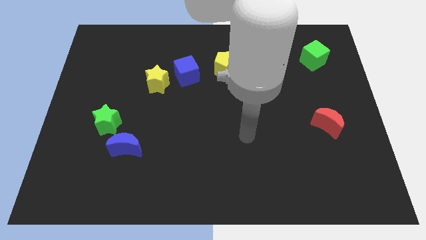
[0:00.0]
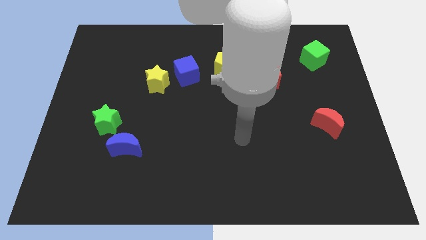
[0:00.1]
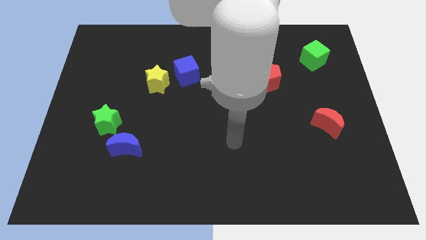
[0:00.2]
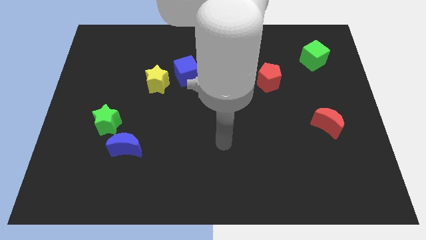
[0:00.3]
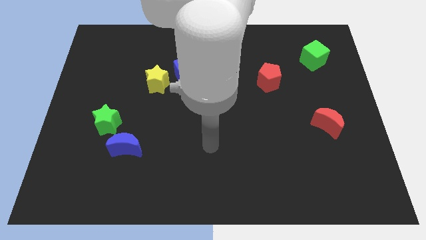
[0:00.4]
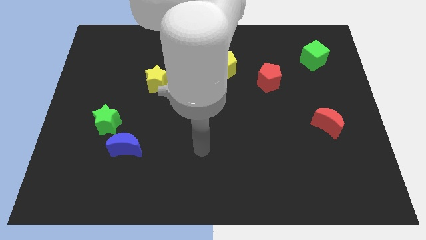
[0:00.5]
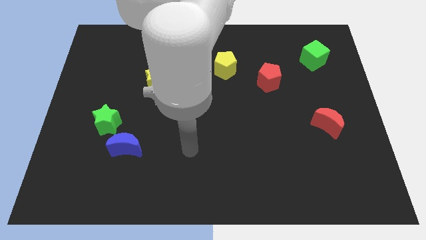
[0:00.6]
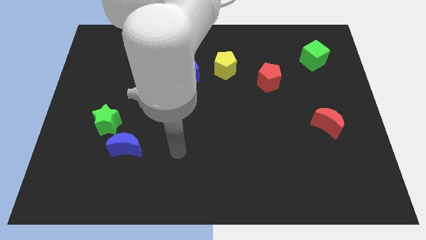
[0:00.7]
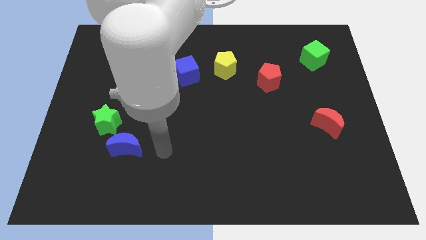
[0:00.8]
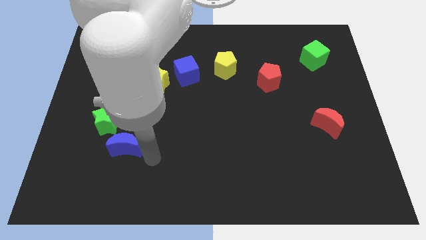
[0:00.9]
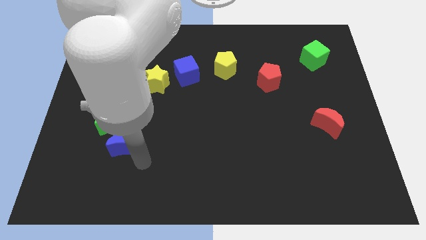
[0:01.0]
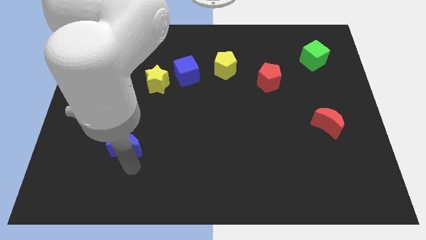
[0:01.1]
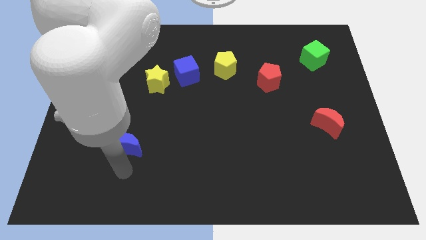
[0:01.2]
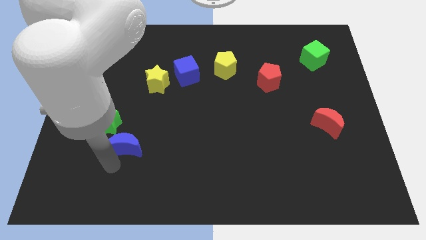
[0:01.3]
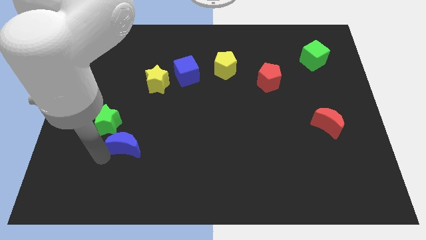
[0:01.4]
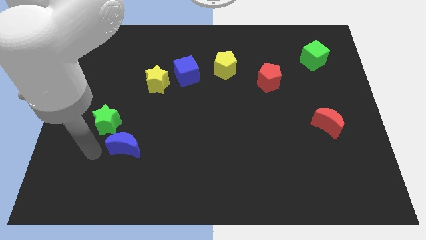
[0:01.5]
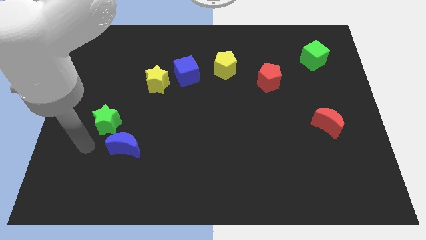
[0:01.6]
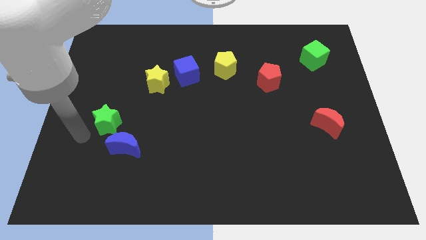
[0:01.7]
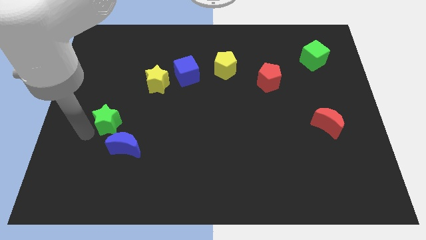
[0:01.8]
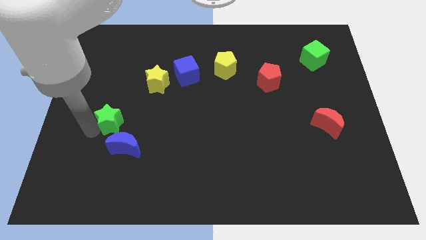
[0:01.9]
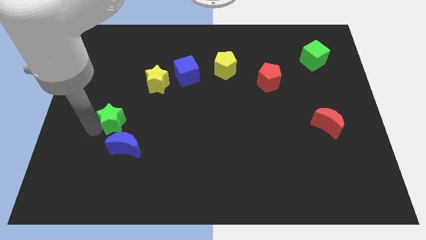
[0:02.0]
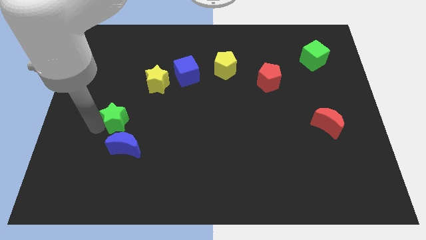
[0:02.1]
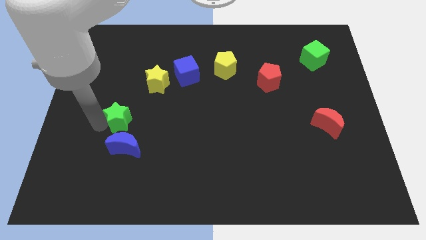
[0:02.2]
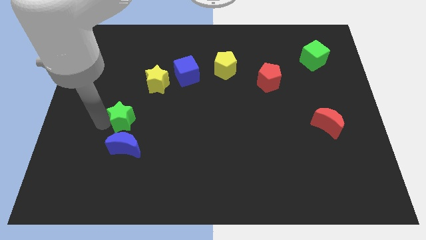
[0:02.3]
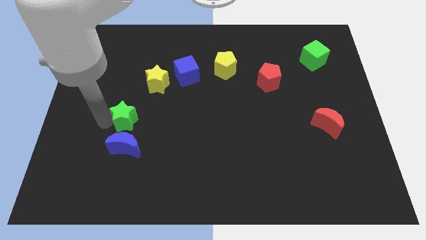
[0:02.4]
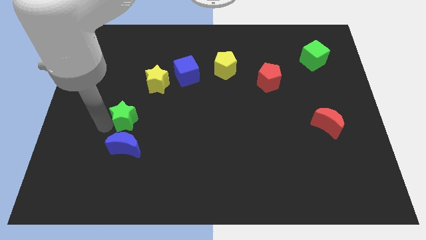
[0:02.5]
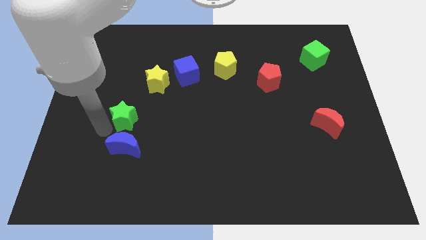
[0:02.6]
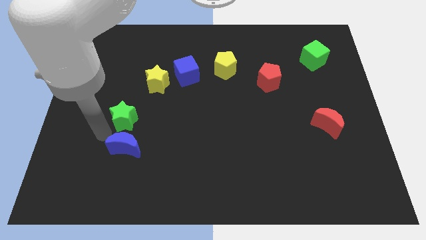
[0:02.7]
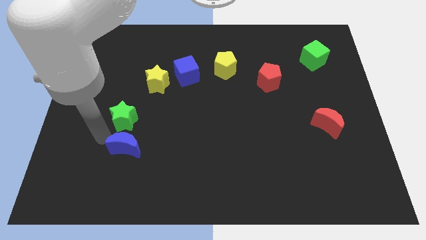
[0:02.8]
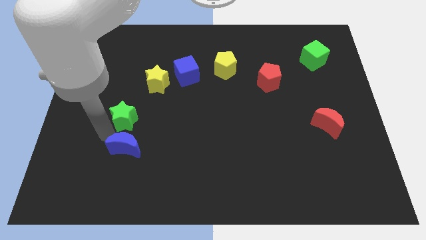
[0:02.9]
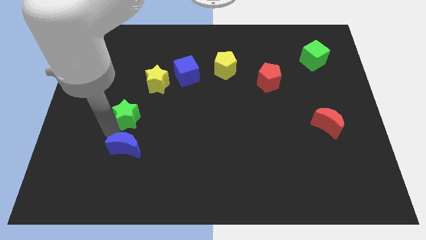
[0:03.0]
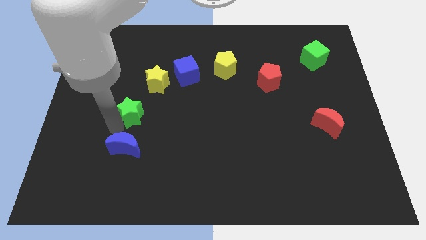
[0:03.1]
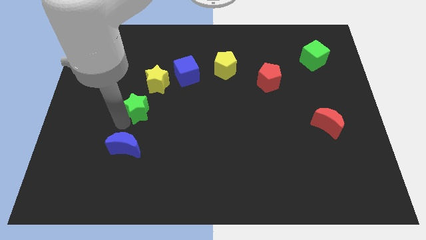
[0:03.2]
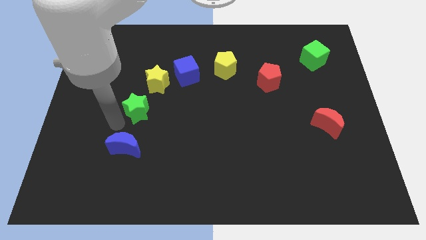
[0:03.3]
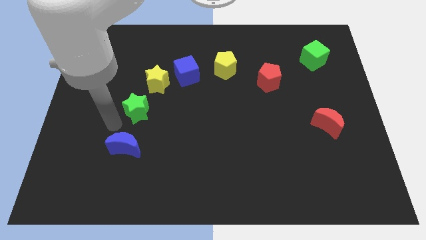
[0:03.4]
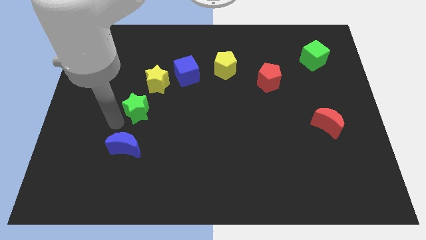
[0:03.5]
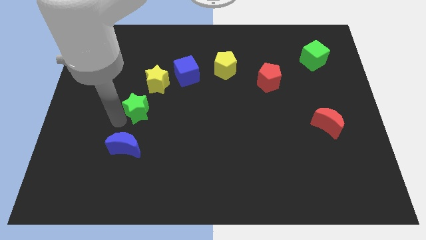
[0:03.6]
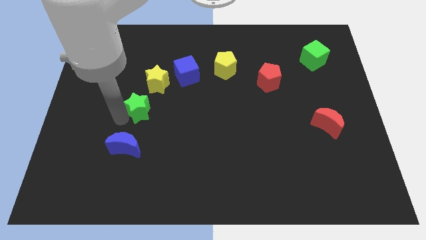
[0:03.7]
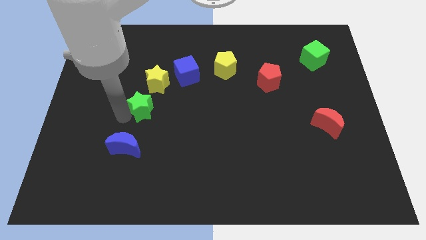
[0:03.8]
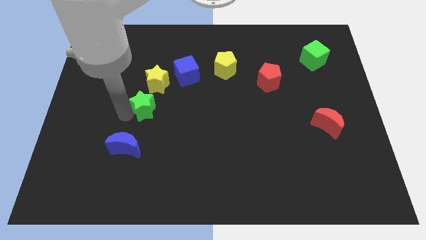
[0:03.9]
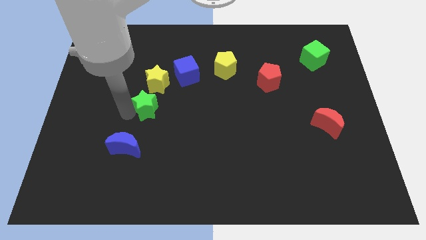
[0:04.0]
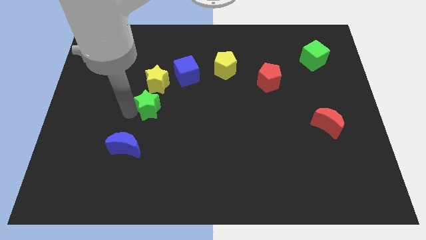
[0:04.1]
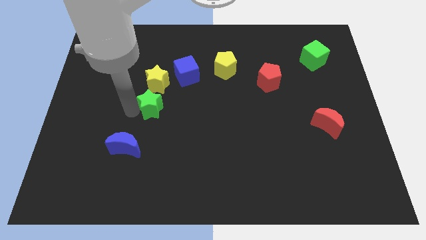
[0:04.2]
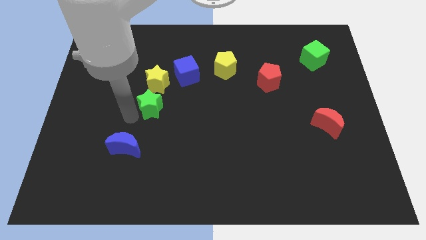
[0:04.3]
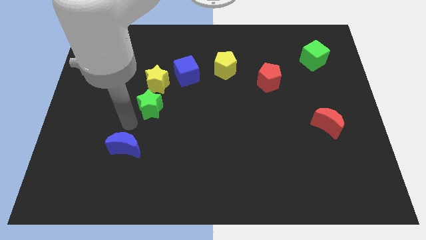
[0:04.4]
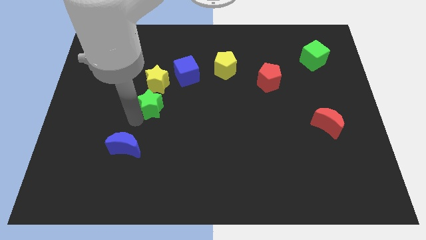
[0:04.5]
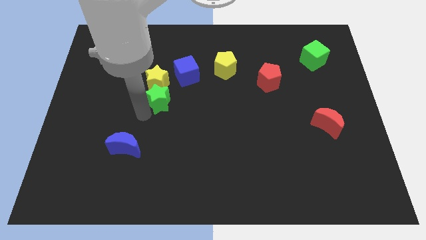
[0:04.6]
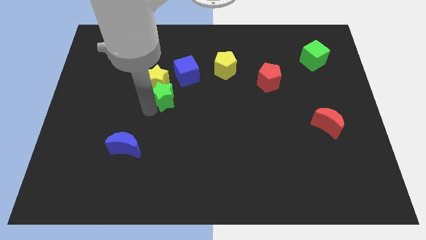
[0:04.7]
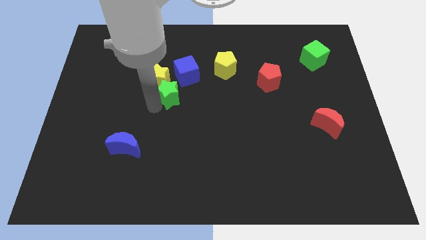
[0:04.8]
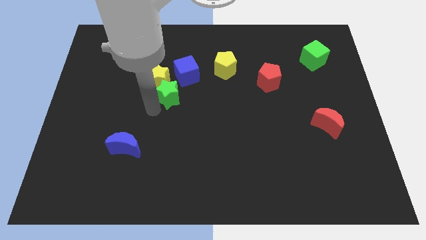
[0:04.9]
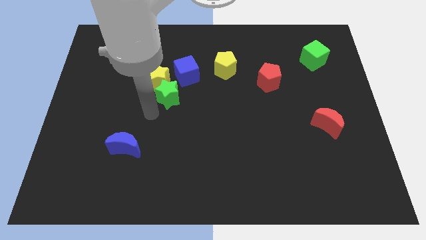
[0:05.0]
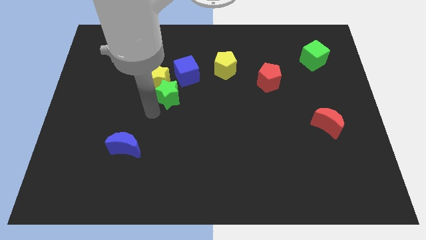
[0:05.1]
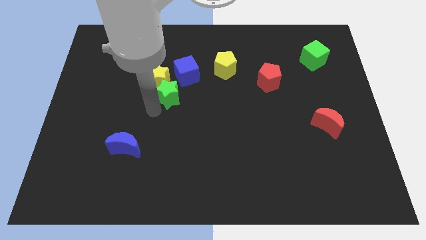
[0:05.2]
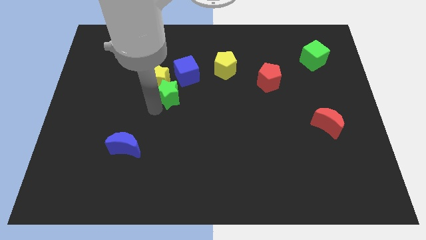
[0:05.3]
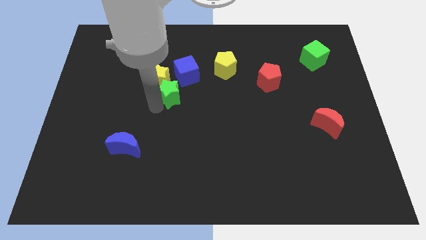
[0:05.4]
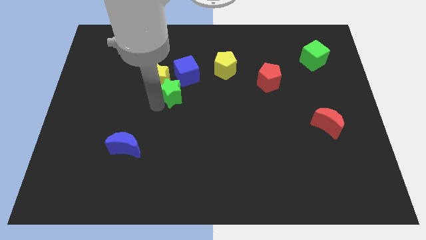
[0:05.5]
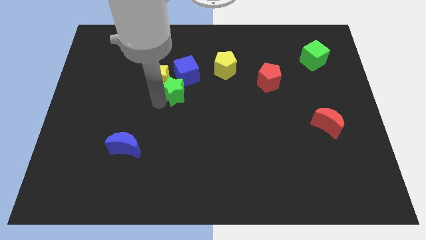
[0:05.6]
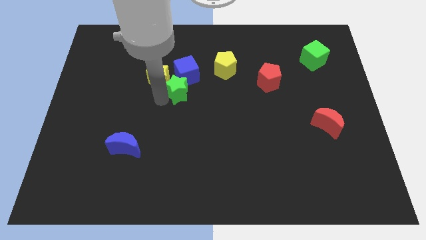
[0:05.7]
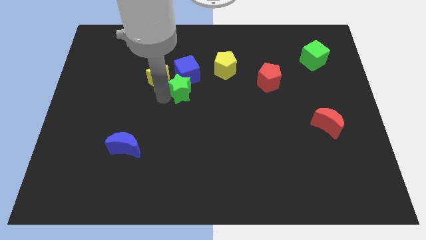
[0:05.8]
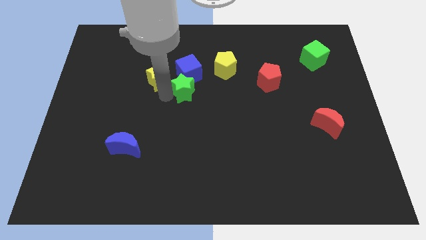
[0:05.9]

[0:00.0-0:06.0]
put the green star diagonally down and to the left of the yellow pentagon

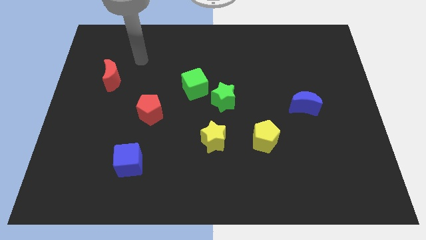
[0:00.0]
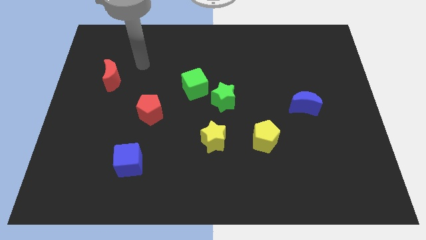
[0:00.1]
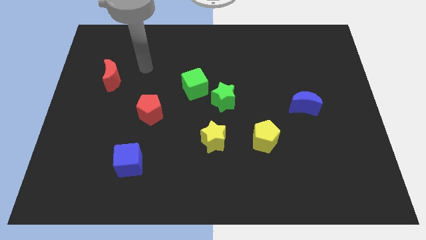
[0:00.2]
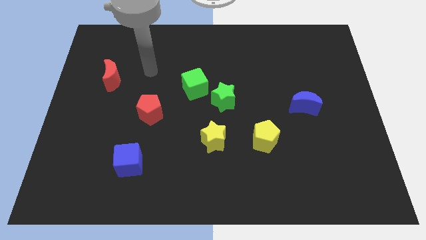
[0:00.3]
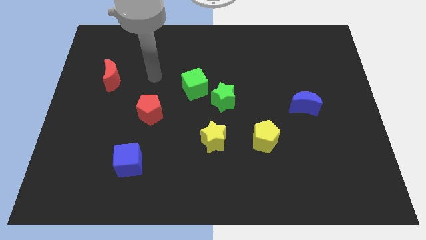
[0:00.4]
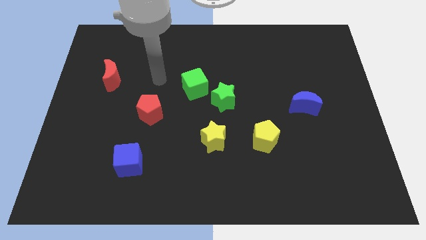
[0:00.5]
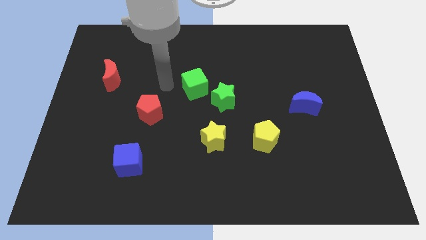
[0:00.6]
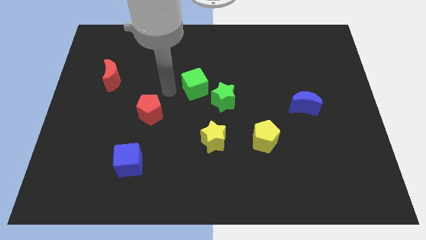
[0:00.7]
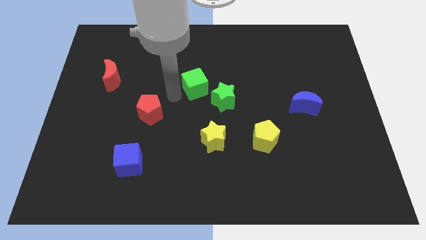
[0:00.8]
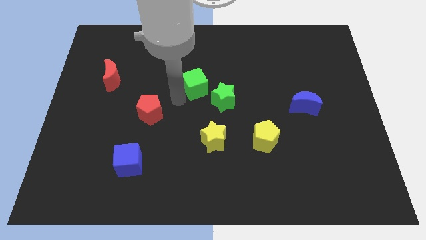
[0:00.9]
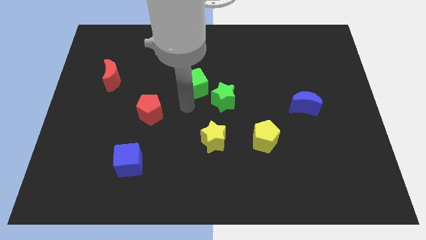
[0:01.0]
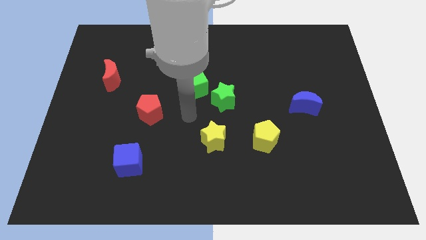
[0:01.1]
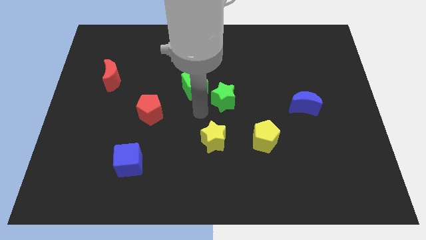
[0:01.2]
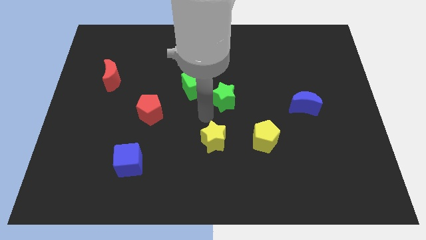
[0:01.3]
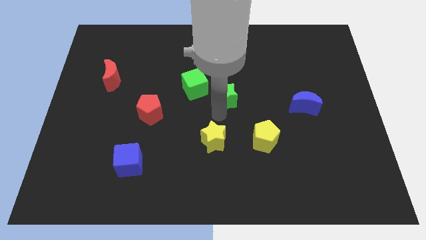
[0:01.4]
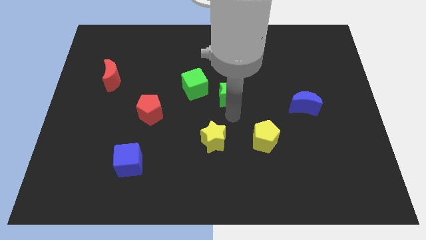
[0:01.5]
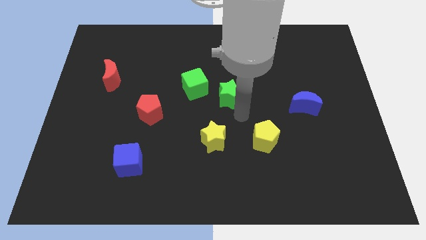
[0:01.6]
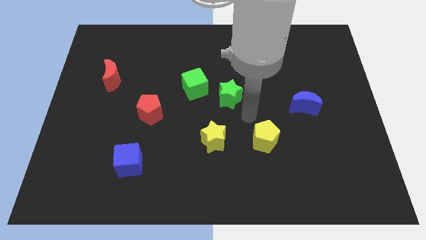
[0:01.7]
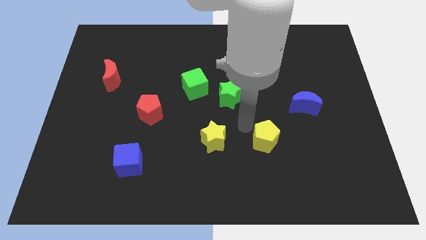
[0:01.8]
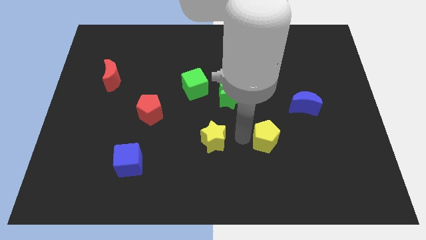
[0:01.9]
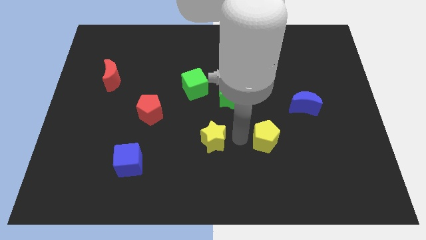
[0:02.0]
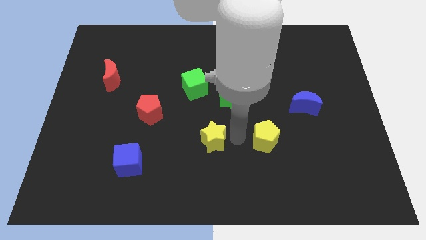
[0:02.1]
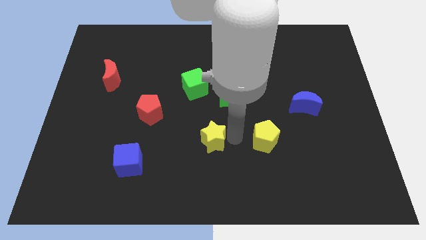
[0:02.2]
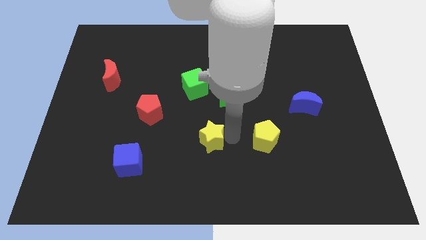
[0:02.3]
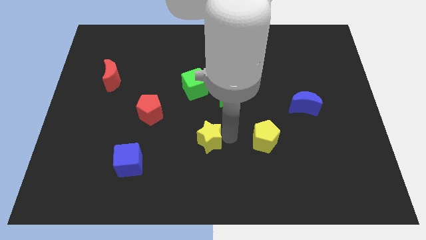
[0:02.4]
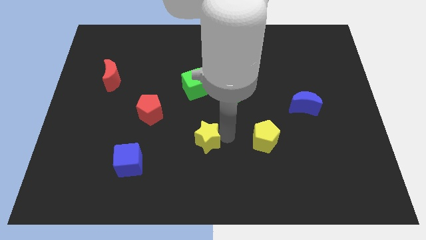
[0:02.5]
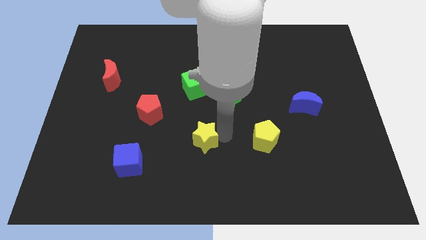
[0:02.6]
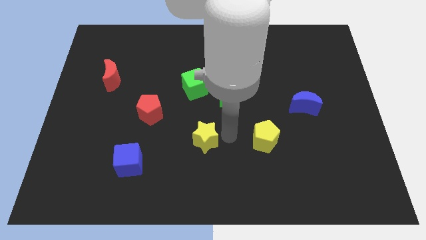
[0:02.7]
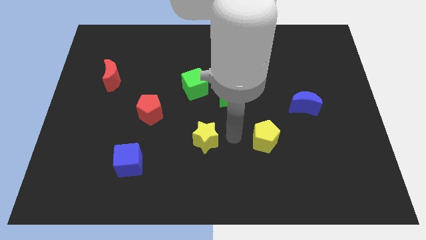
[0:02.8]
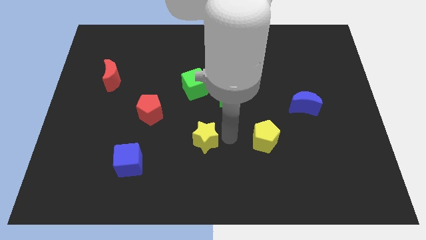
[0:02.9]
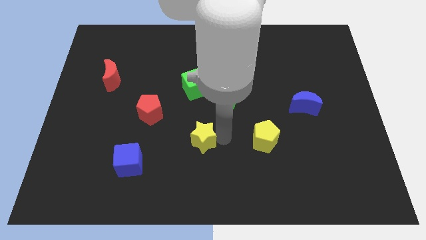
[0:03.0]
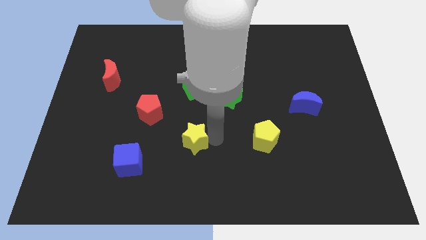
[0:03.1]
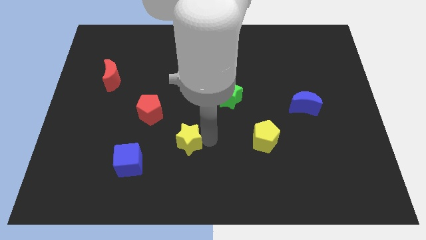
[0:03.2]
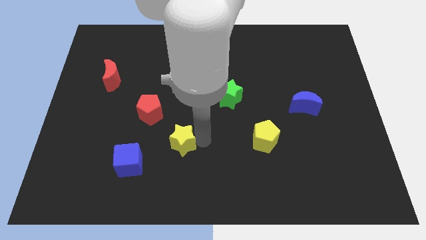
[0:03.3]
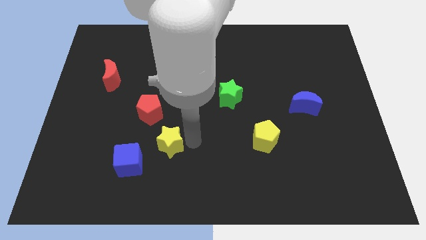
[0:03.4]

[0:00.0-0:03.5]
move the yellow star below the red pentagon
